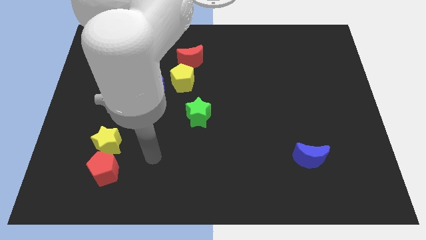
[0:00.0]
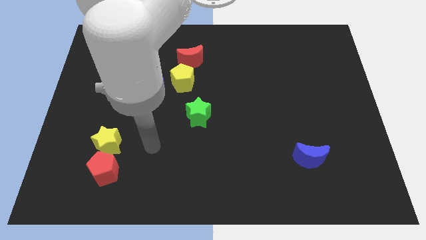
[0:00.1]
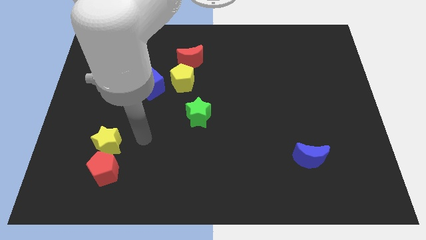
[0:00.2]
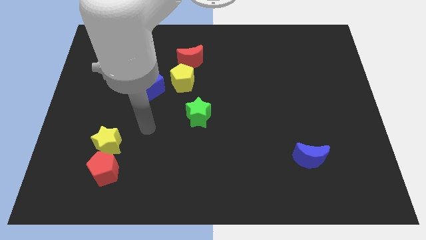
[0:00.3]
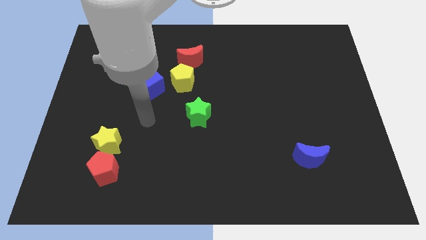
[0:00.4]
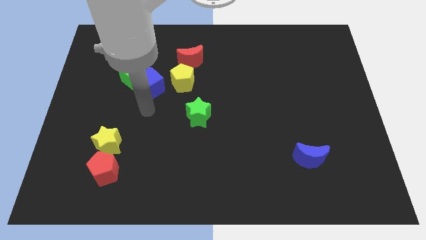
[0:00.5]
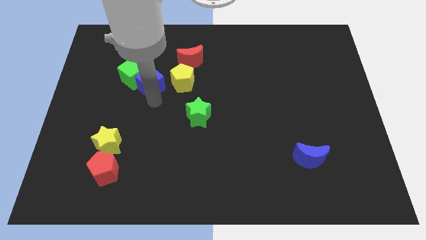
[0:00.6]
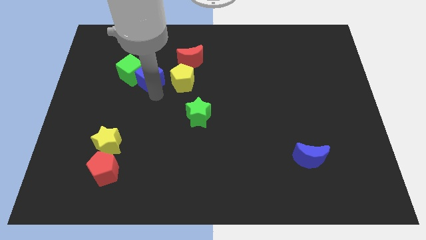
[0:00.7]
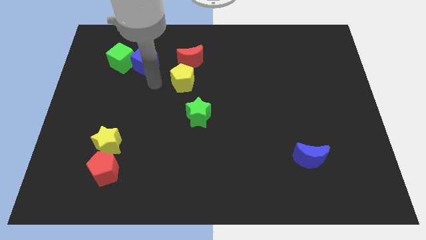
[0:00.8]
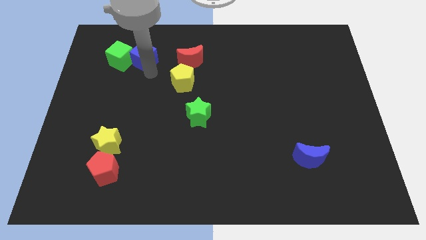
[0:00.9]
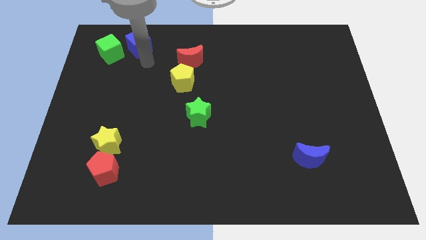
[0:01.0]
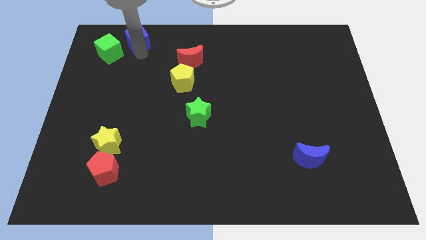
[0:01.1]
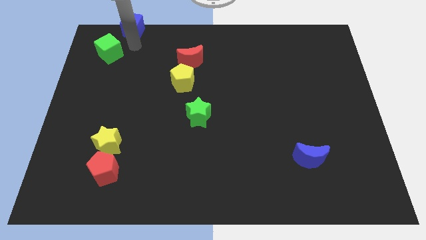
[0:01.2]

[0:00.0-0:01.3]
move the green cube away from the blue cube

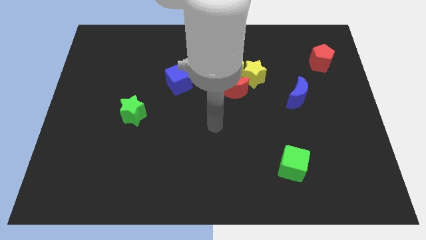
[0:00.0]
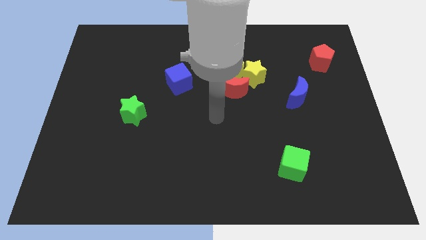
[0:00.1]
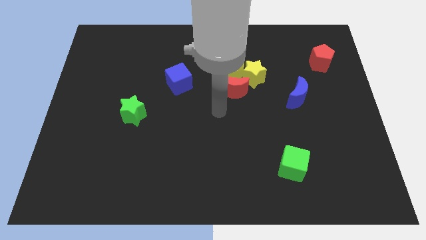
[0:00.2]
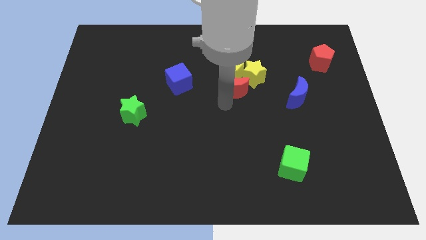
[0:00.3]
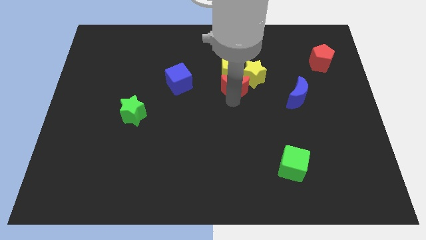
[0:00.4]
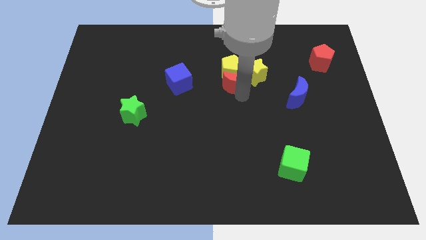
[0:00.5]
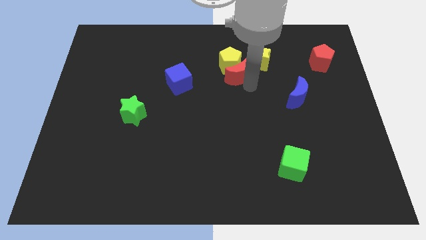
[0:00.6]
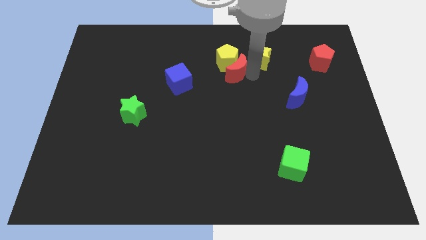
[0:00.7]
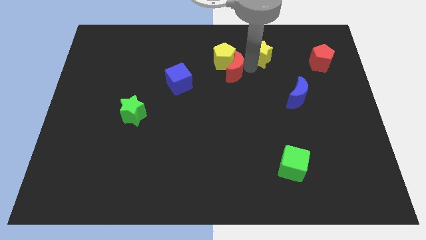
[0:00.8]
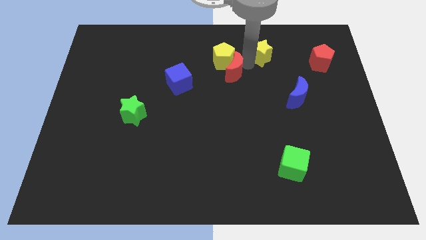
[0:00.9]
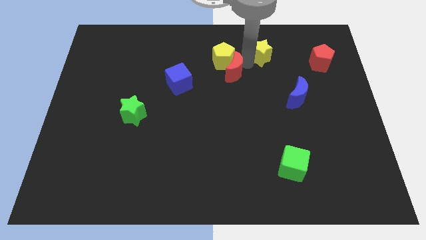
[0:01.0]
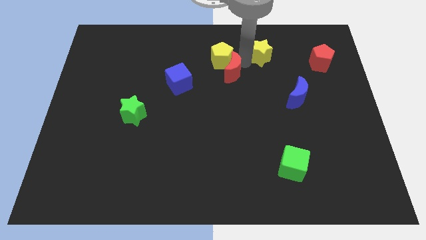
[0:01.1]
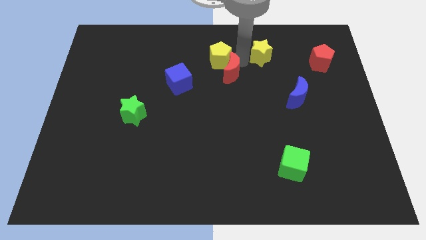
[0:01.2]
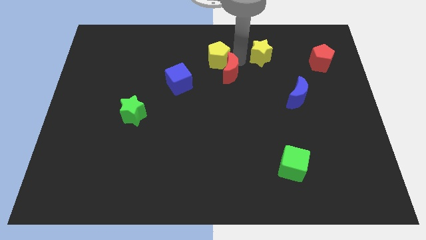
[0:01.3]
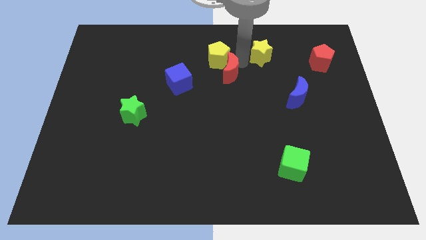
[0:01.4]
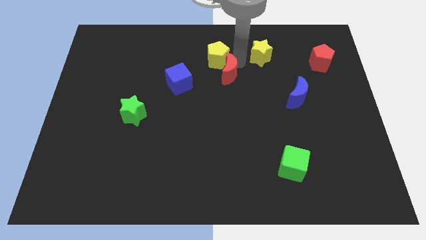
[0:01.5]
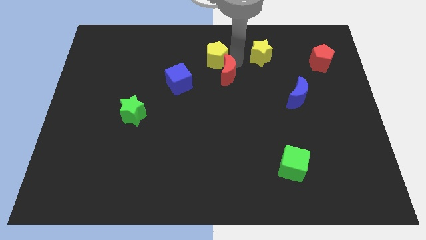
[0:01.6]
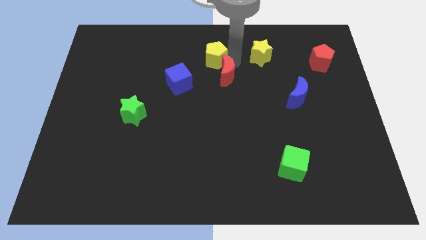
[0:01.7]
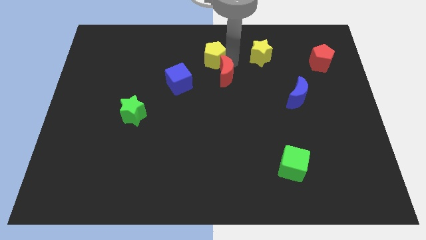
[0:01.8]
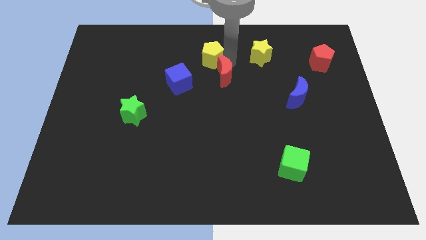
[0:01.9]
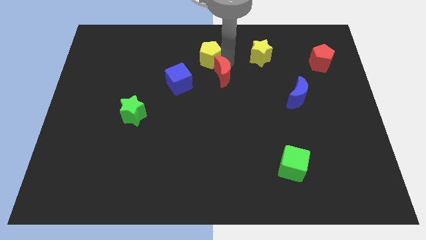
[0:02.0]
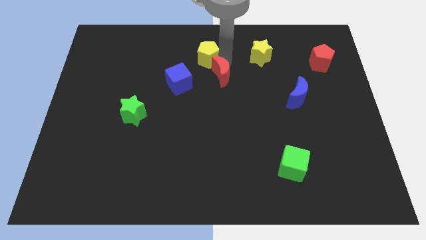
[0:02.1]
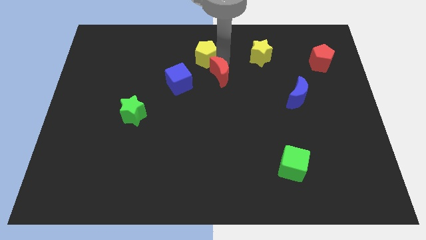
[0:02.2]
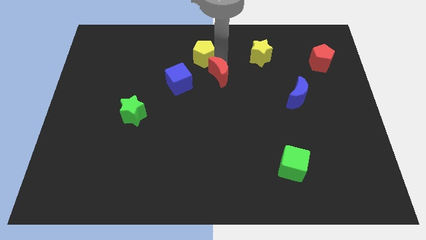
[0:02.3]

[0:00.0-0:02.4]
separate the yellow pentagon from the yellow star and red moon

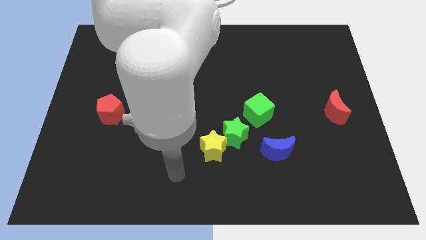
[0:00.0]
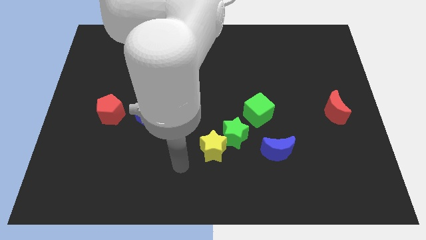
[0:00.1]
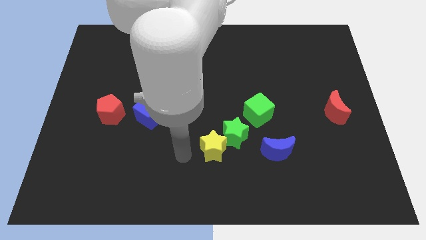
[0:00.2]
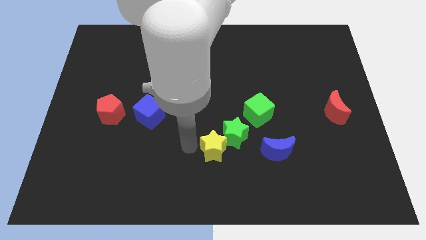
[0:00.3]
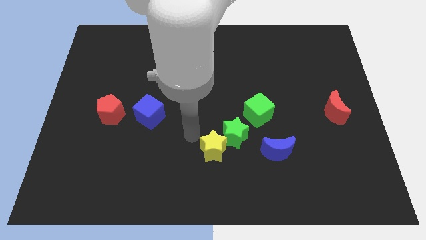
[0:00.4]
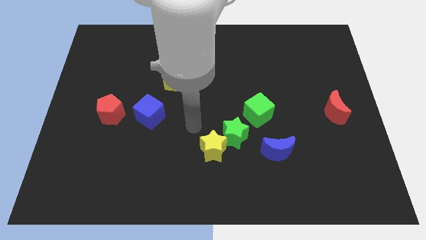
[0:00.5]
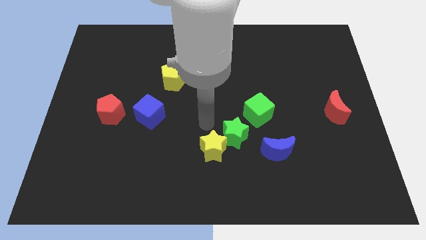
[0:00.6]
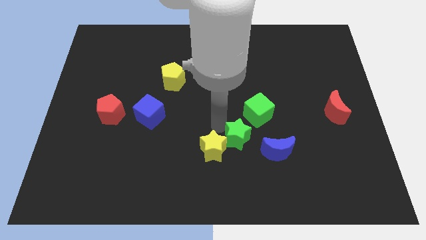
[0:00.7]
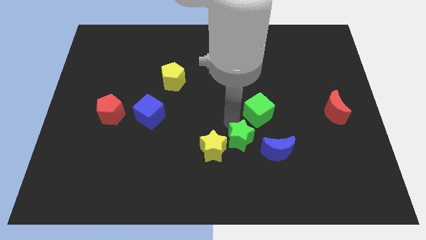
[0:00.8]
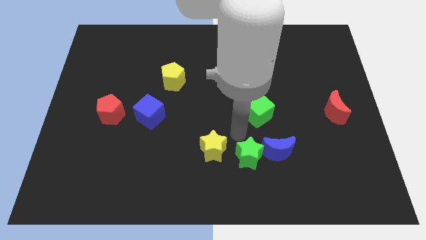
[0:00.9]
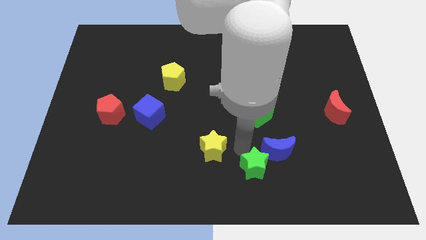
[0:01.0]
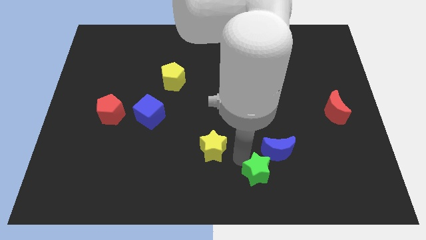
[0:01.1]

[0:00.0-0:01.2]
move the yellow star away from the green star

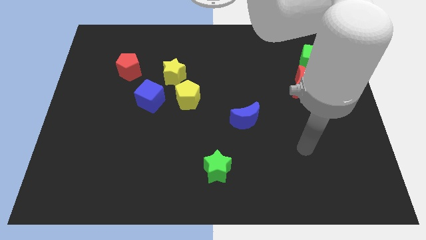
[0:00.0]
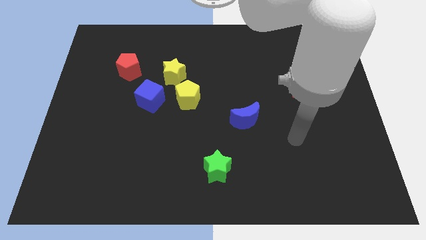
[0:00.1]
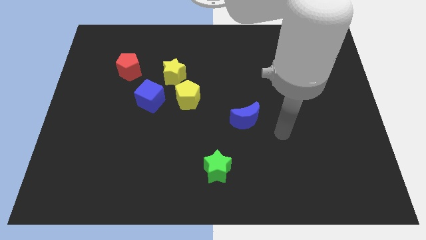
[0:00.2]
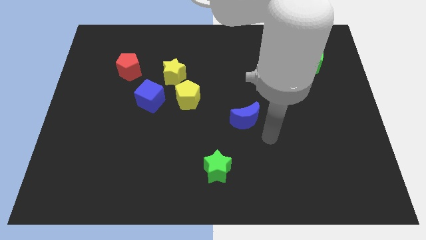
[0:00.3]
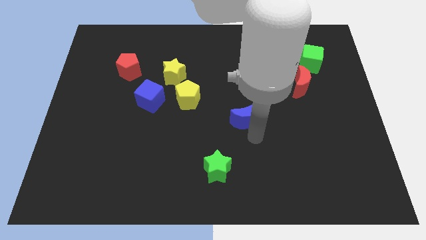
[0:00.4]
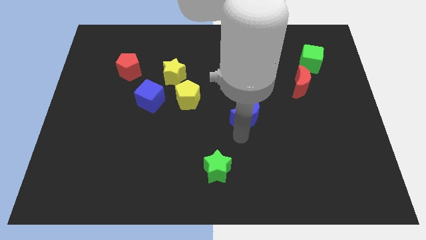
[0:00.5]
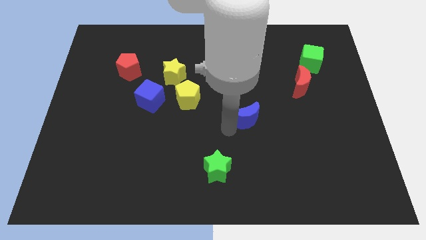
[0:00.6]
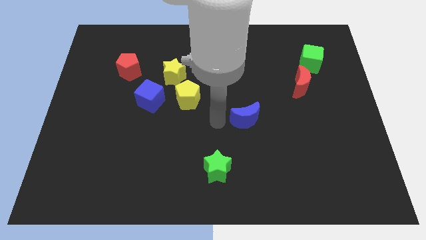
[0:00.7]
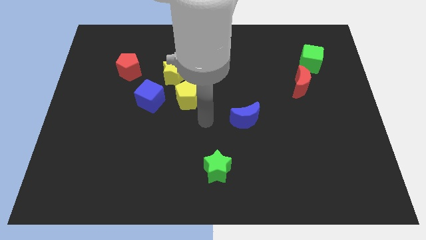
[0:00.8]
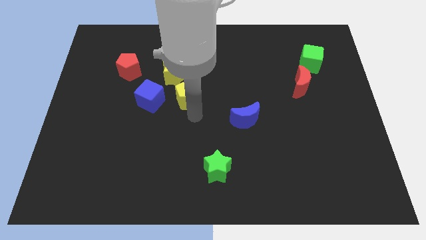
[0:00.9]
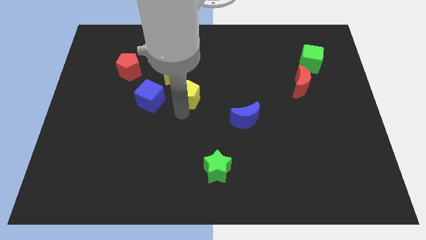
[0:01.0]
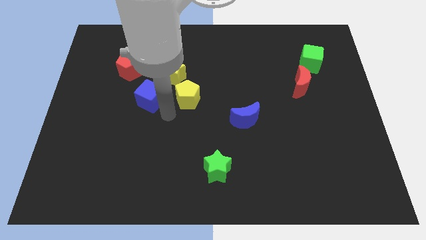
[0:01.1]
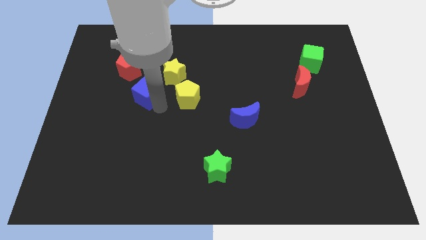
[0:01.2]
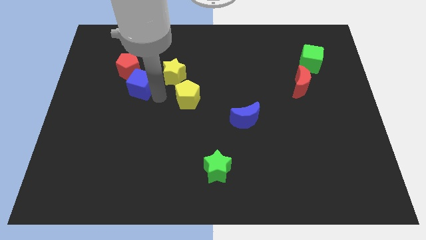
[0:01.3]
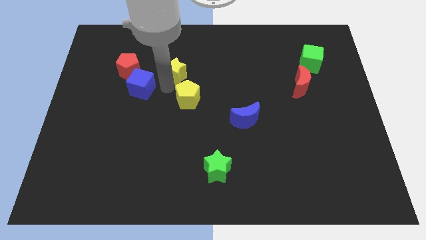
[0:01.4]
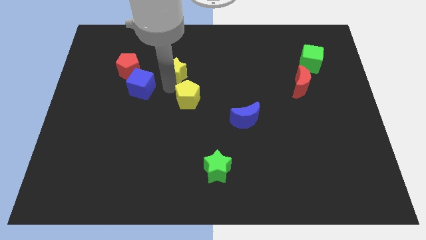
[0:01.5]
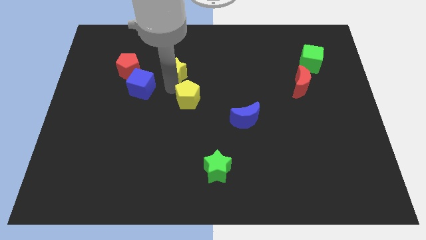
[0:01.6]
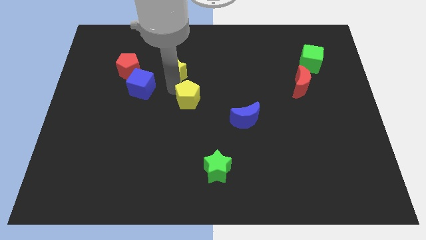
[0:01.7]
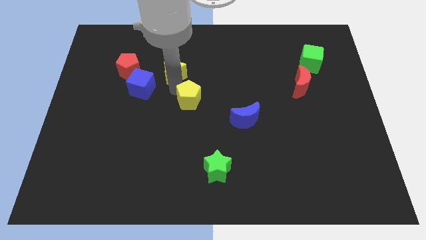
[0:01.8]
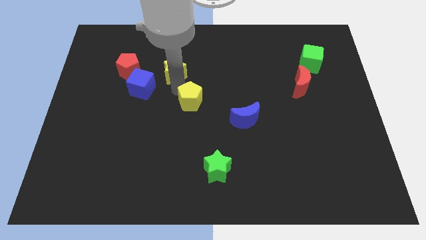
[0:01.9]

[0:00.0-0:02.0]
pull the yellow pentagon apart from the yellow star and blue cube

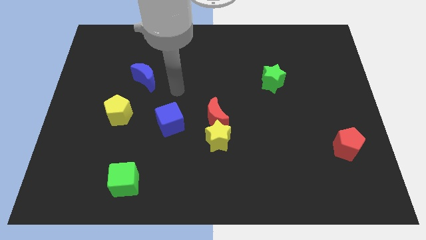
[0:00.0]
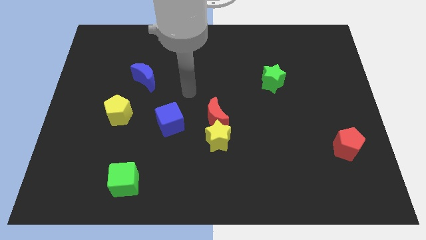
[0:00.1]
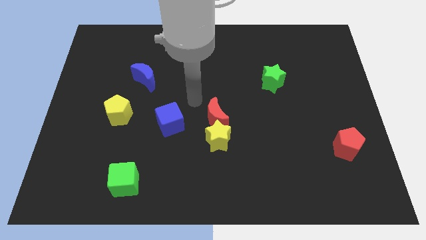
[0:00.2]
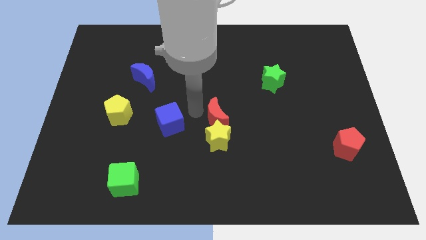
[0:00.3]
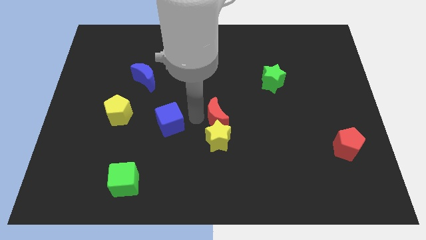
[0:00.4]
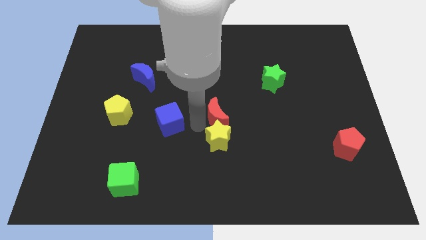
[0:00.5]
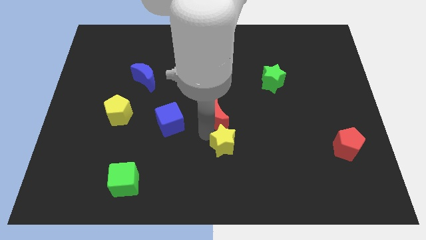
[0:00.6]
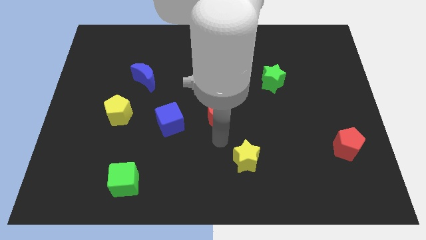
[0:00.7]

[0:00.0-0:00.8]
separate the red moon from the yellow star

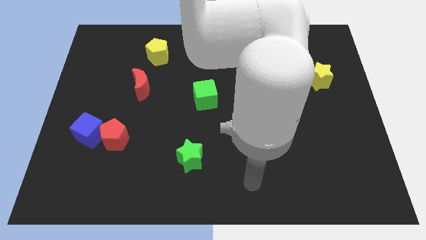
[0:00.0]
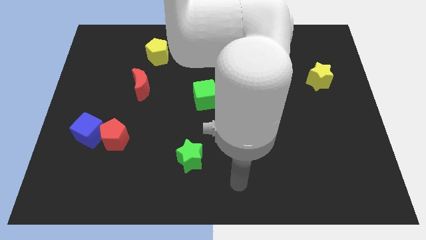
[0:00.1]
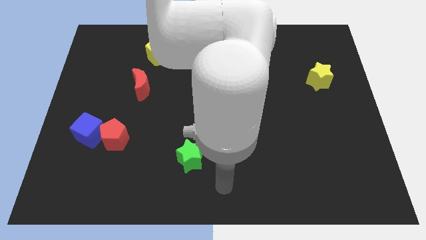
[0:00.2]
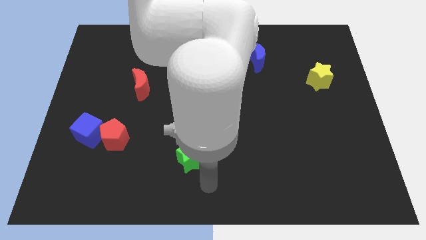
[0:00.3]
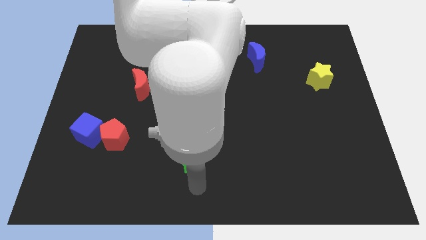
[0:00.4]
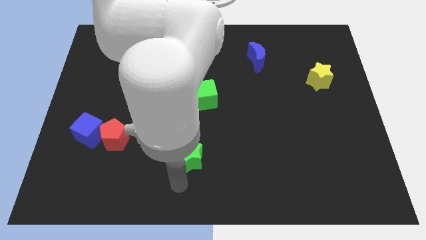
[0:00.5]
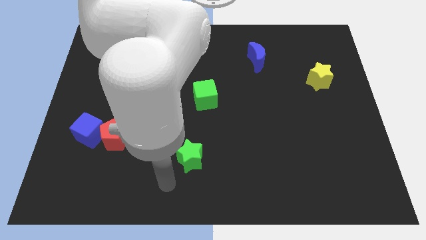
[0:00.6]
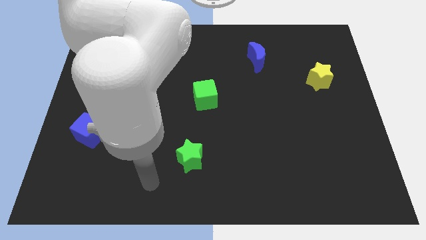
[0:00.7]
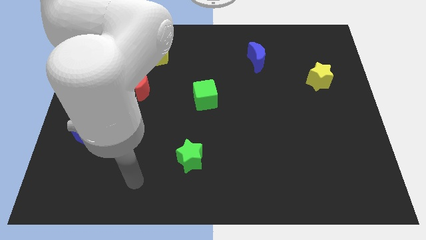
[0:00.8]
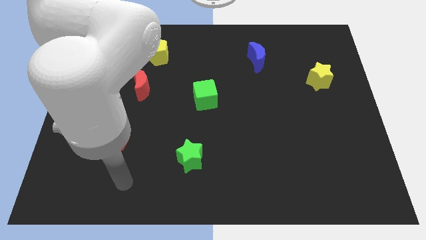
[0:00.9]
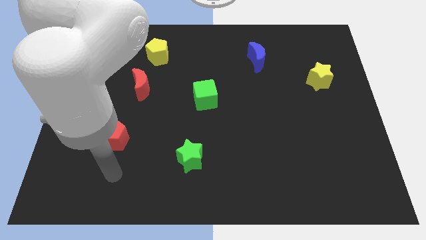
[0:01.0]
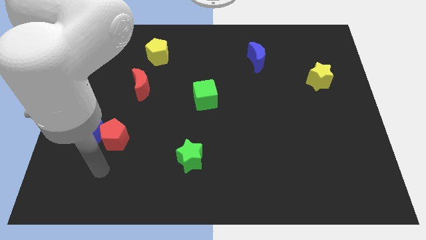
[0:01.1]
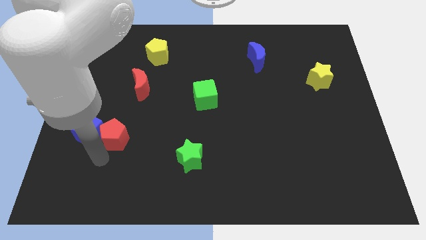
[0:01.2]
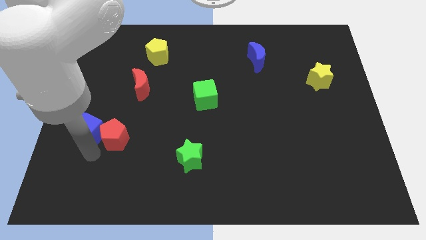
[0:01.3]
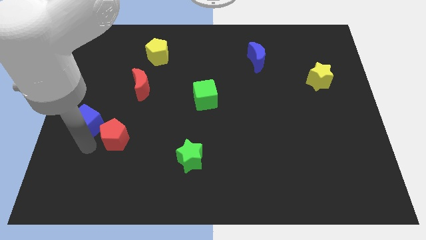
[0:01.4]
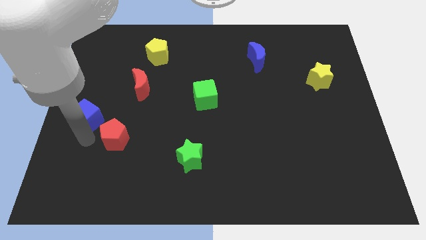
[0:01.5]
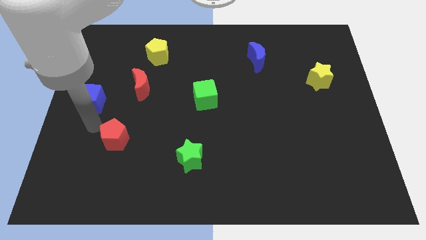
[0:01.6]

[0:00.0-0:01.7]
separate the red pentagon from the blue cube
